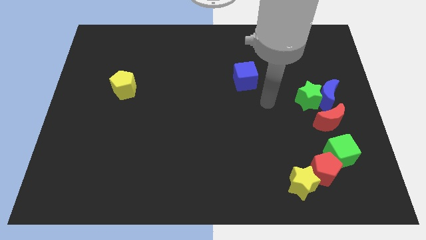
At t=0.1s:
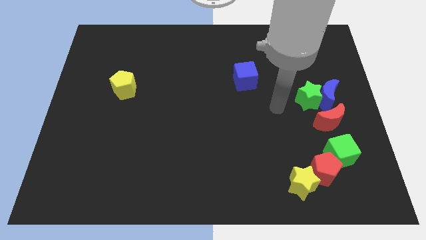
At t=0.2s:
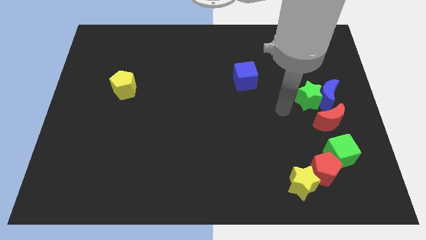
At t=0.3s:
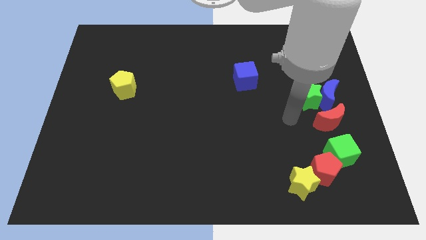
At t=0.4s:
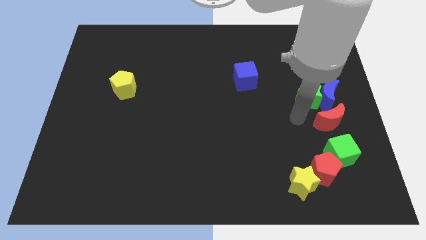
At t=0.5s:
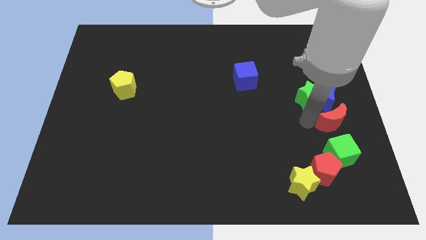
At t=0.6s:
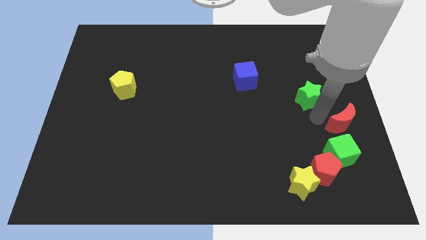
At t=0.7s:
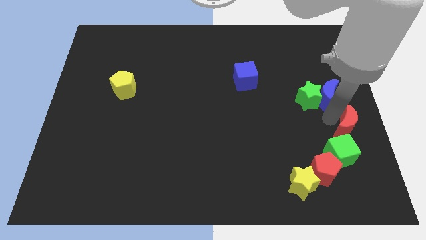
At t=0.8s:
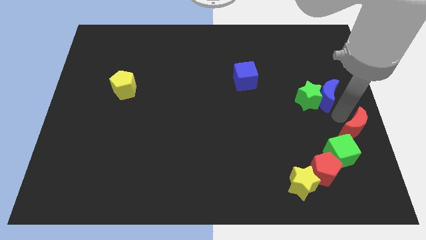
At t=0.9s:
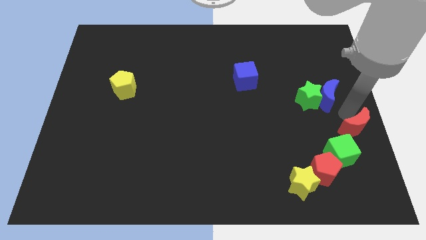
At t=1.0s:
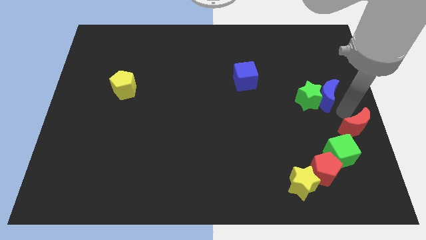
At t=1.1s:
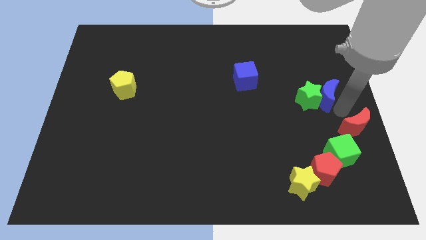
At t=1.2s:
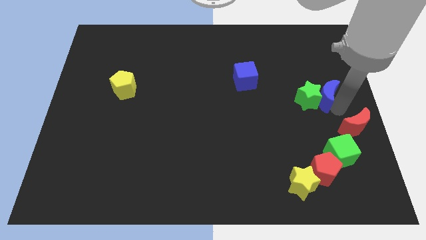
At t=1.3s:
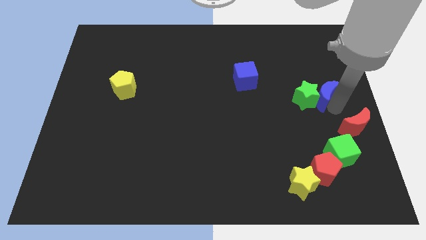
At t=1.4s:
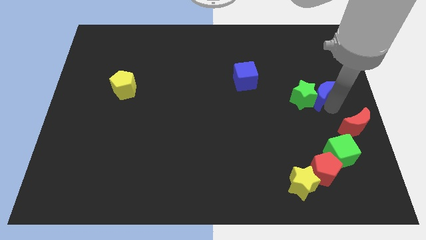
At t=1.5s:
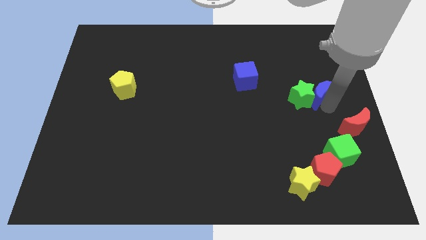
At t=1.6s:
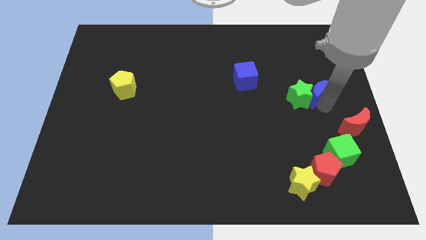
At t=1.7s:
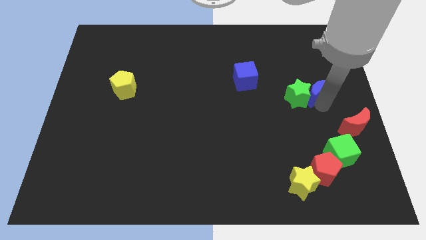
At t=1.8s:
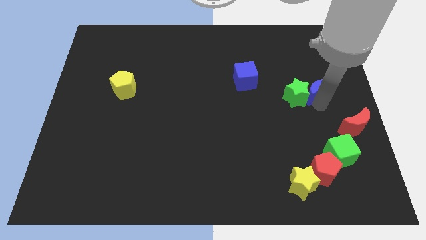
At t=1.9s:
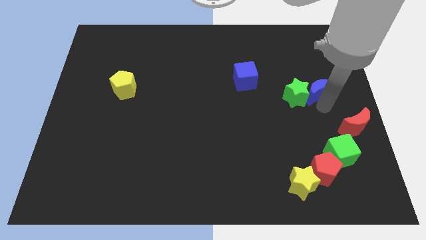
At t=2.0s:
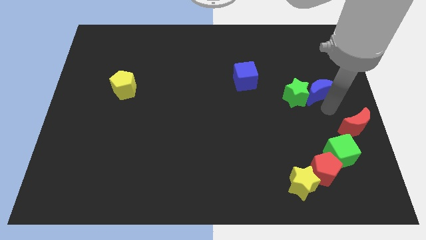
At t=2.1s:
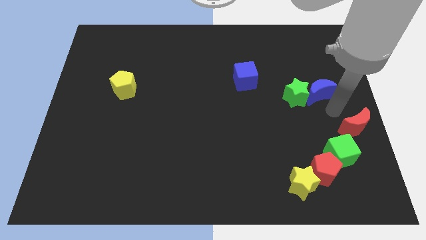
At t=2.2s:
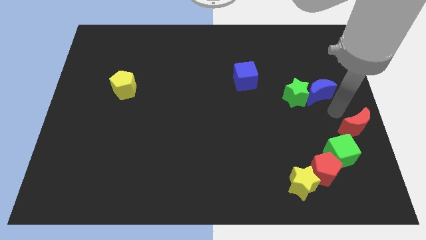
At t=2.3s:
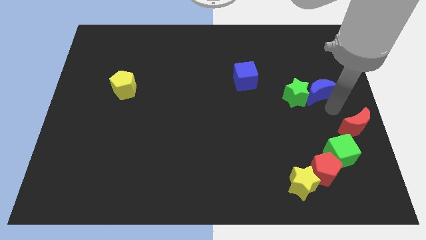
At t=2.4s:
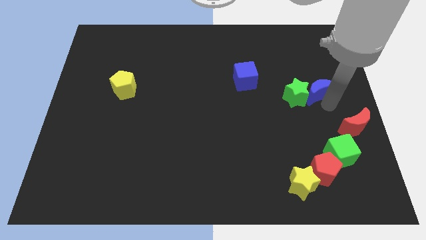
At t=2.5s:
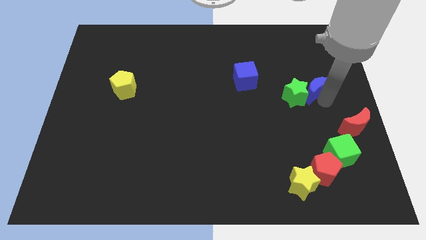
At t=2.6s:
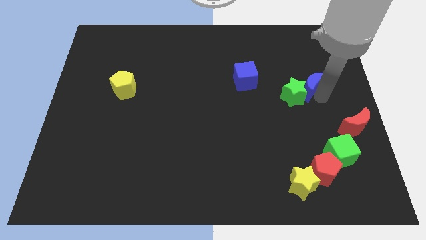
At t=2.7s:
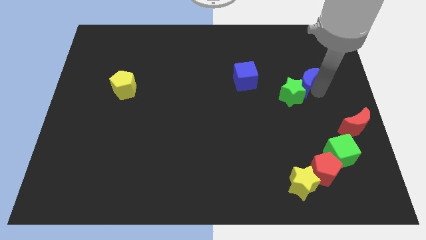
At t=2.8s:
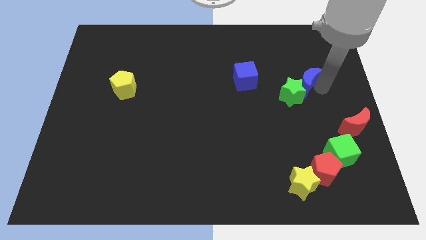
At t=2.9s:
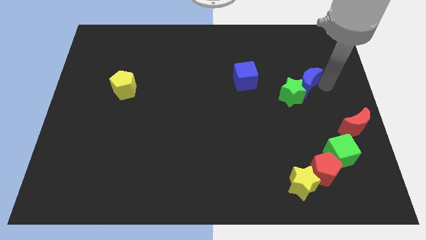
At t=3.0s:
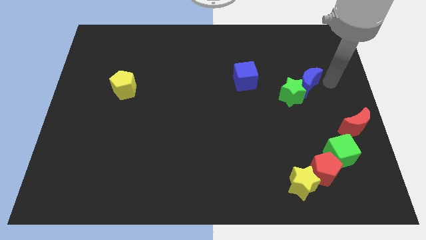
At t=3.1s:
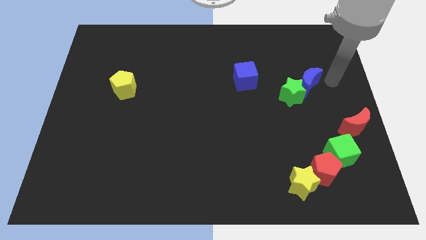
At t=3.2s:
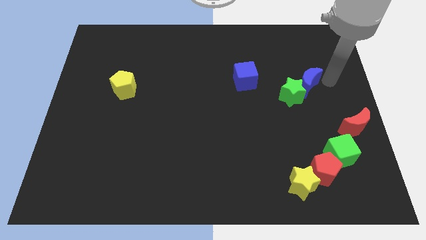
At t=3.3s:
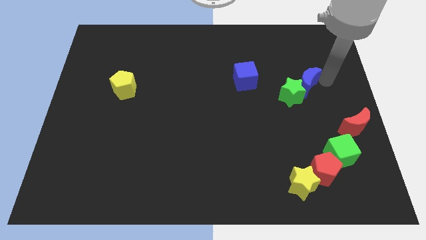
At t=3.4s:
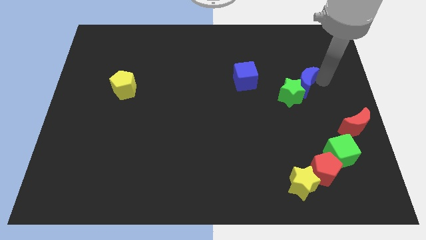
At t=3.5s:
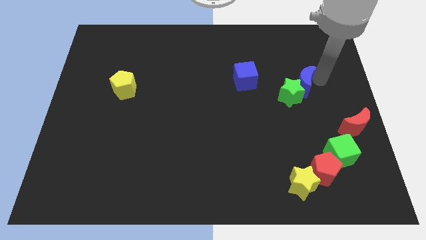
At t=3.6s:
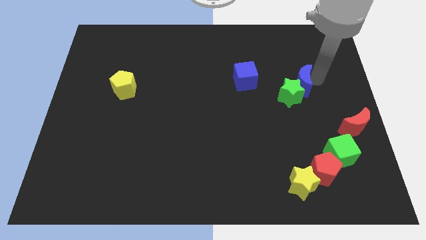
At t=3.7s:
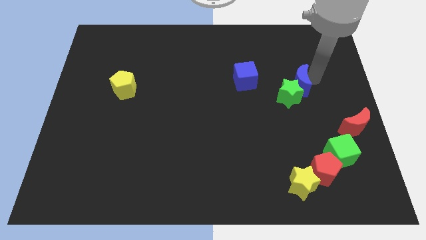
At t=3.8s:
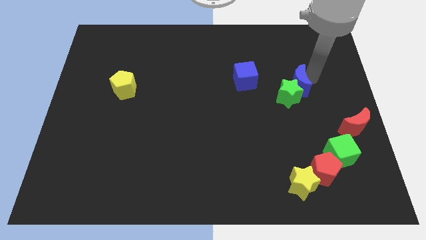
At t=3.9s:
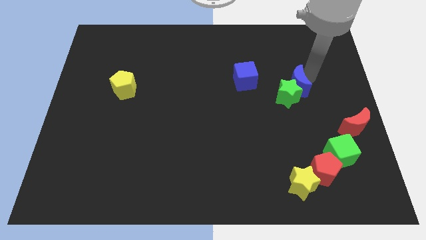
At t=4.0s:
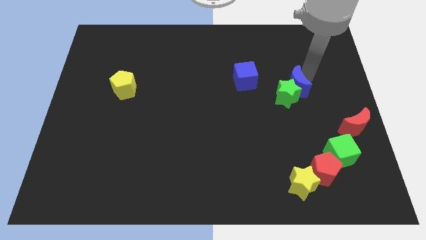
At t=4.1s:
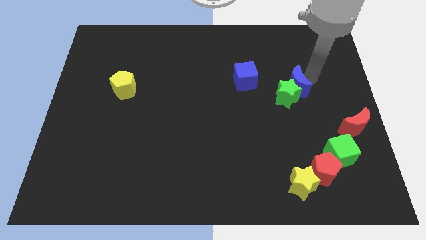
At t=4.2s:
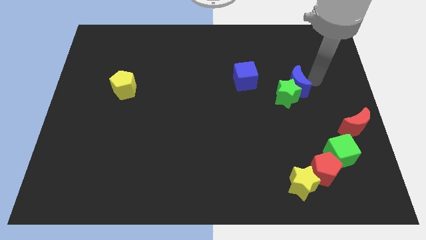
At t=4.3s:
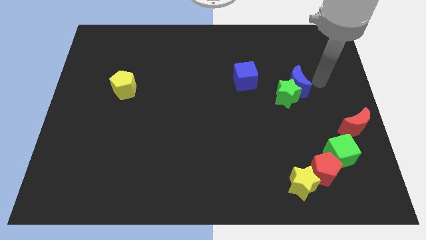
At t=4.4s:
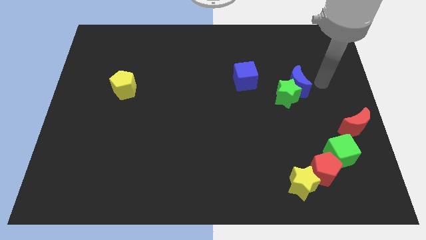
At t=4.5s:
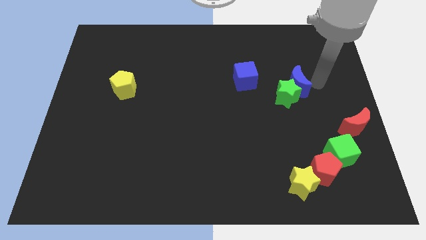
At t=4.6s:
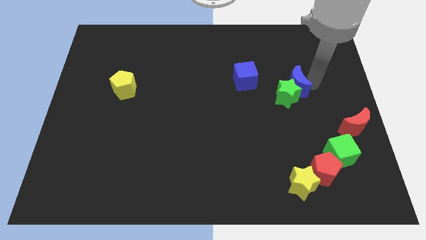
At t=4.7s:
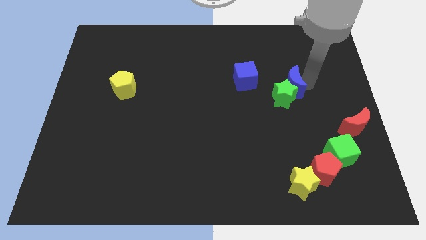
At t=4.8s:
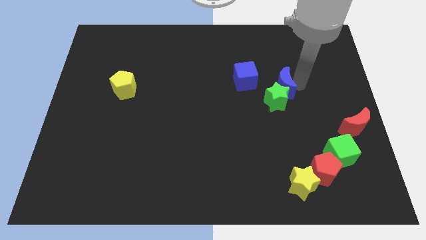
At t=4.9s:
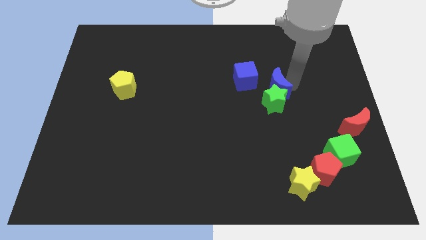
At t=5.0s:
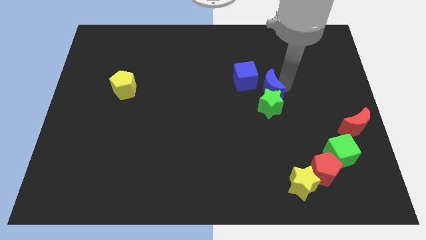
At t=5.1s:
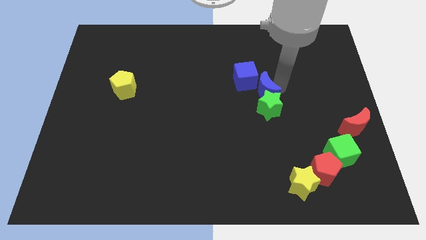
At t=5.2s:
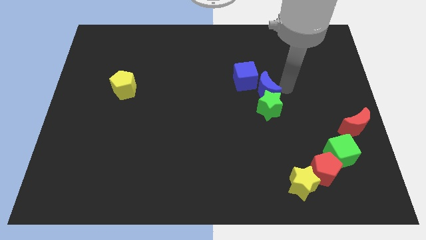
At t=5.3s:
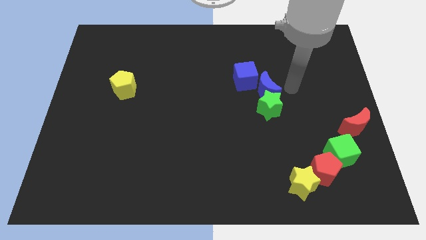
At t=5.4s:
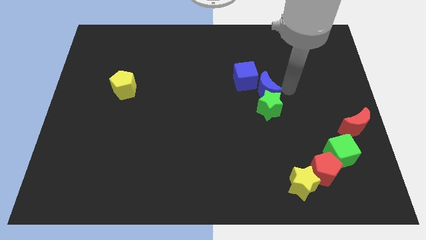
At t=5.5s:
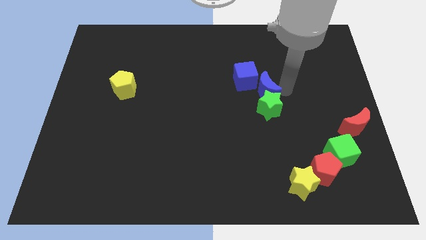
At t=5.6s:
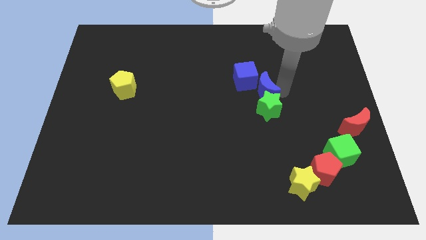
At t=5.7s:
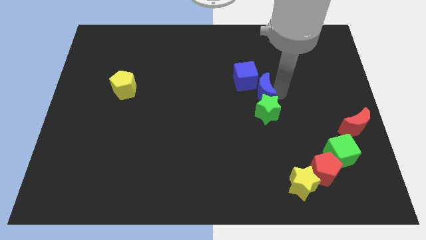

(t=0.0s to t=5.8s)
put the blue moon to the center

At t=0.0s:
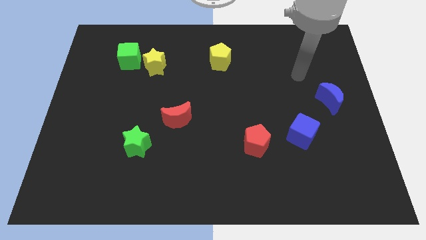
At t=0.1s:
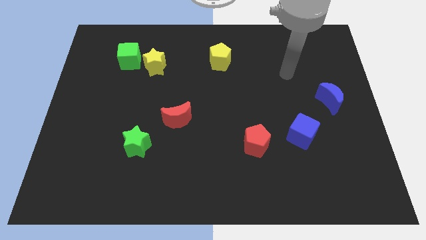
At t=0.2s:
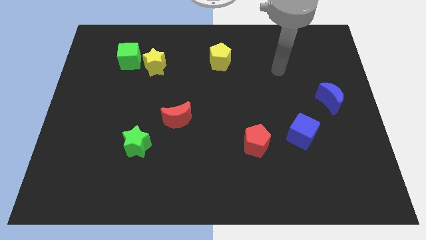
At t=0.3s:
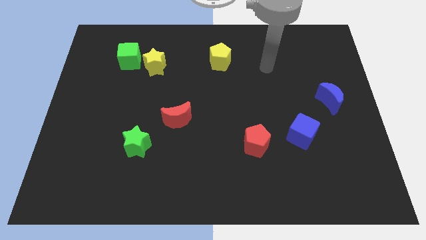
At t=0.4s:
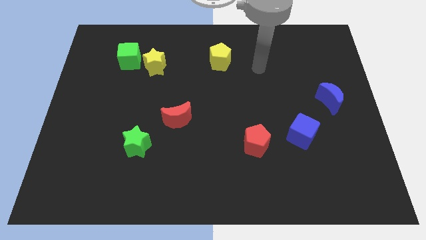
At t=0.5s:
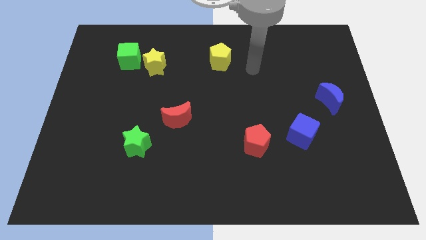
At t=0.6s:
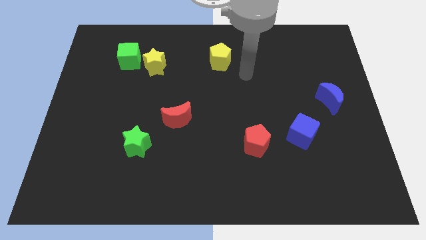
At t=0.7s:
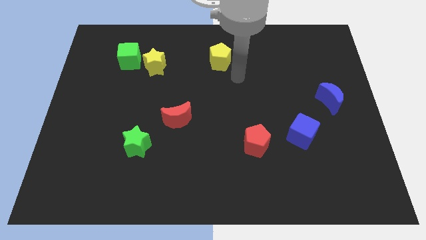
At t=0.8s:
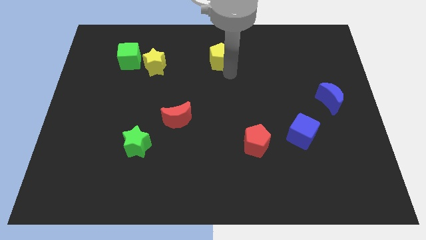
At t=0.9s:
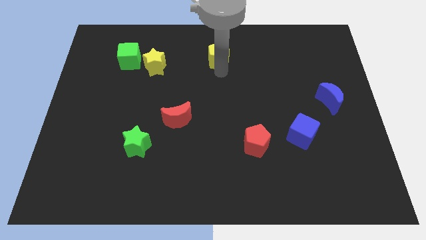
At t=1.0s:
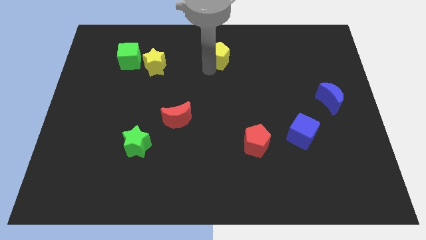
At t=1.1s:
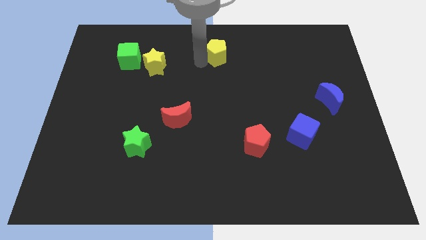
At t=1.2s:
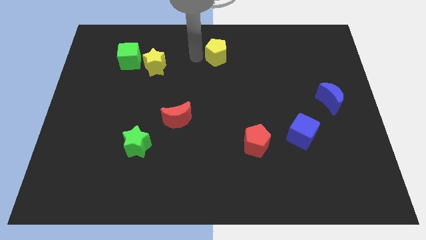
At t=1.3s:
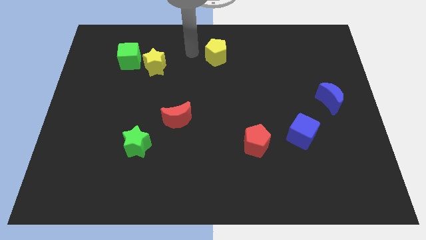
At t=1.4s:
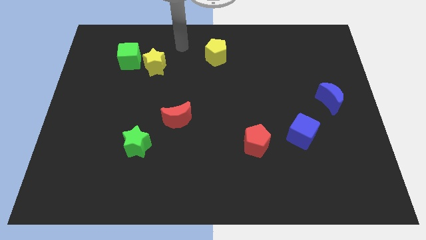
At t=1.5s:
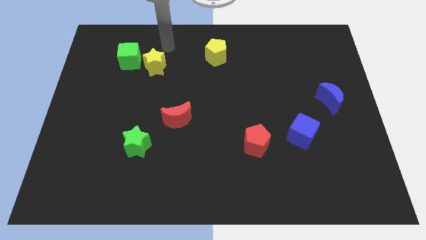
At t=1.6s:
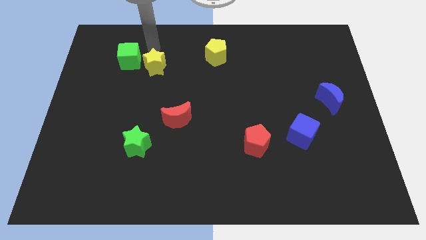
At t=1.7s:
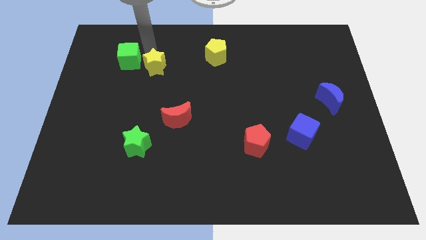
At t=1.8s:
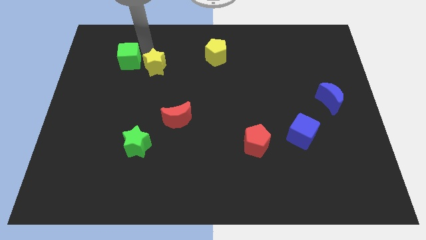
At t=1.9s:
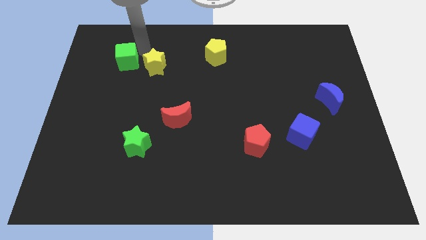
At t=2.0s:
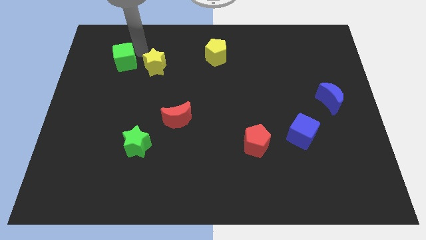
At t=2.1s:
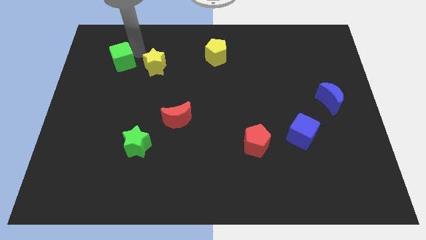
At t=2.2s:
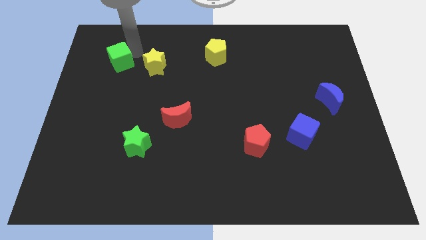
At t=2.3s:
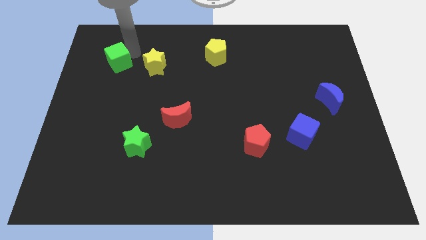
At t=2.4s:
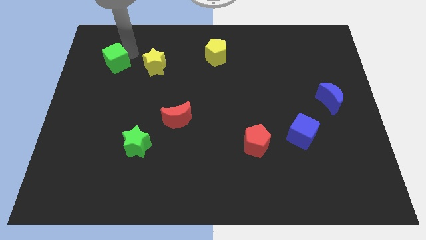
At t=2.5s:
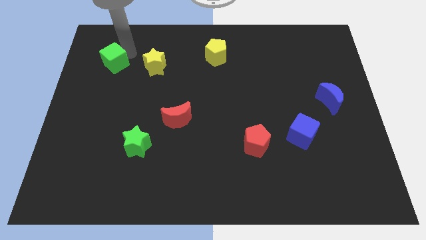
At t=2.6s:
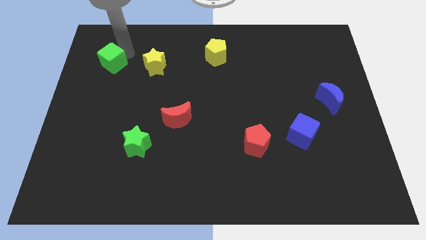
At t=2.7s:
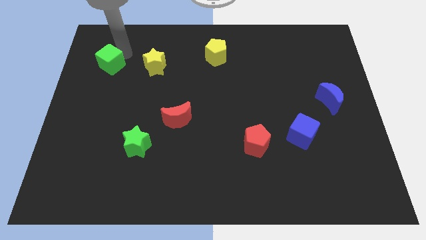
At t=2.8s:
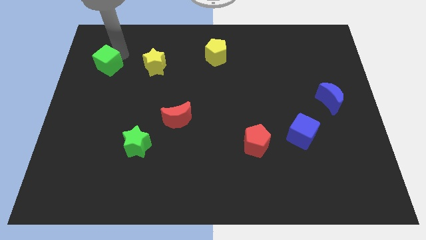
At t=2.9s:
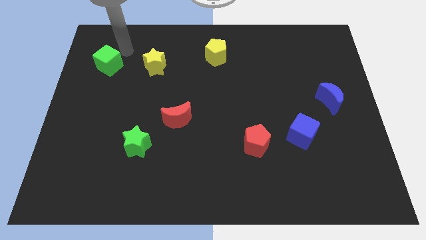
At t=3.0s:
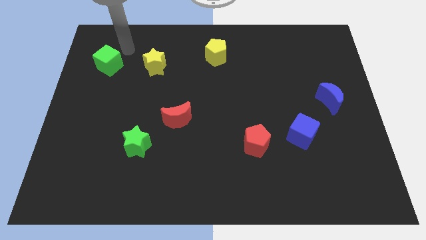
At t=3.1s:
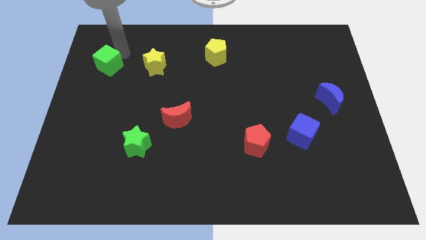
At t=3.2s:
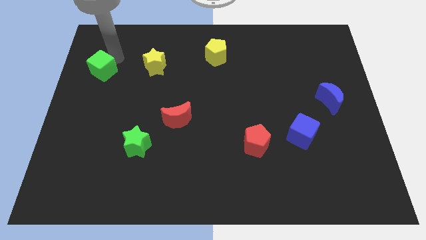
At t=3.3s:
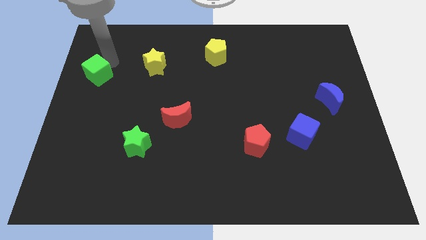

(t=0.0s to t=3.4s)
move the green cube to the center left
